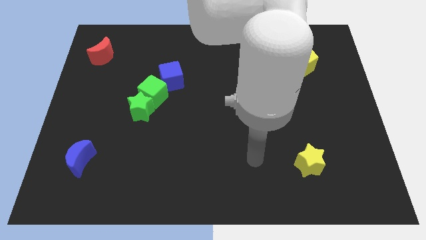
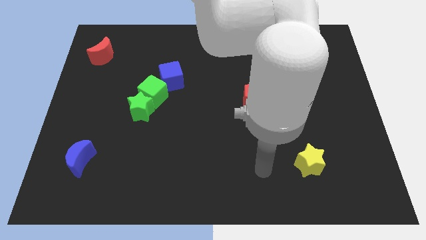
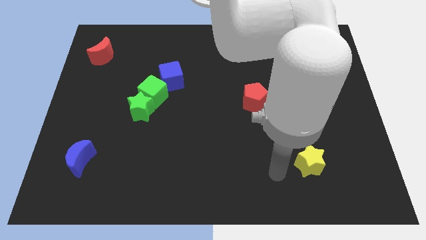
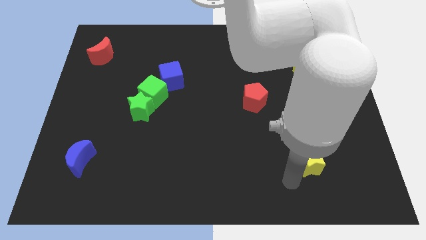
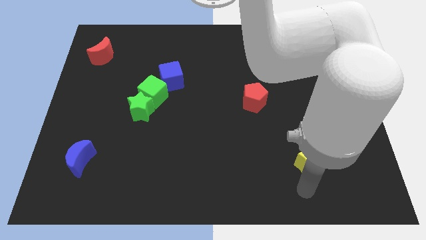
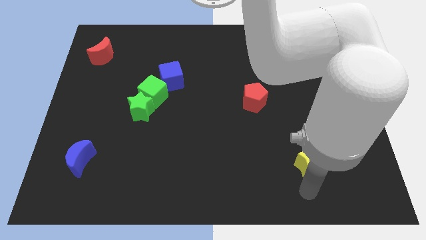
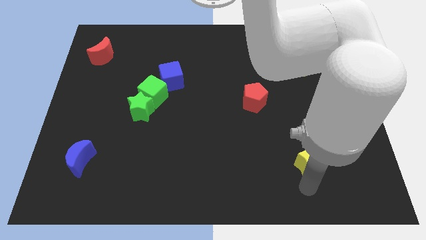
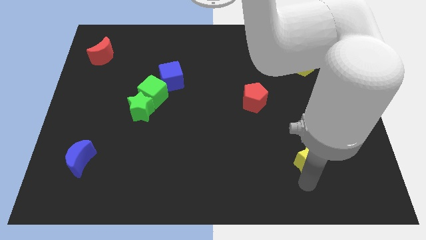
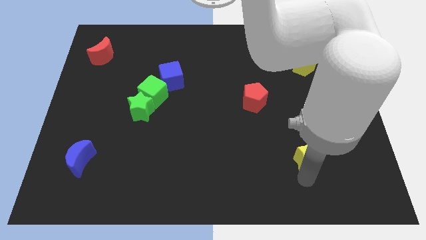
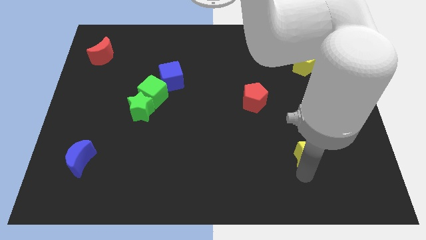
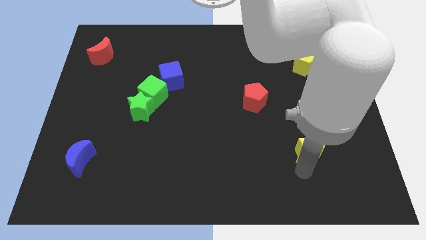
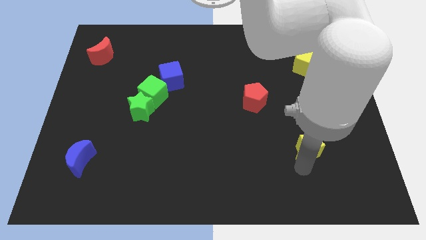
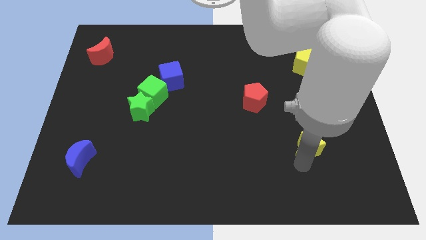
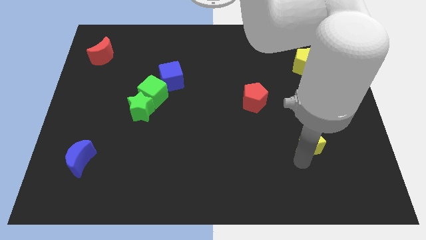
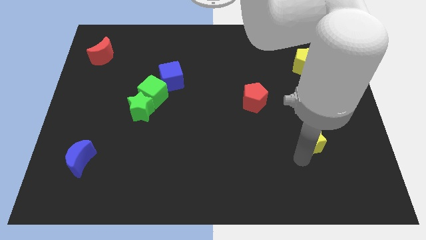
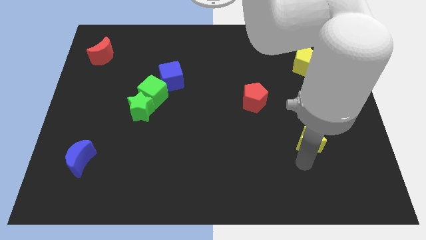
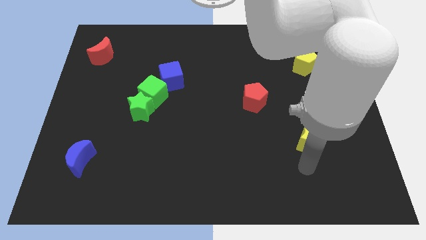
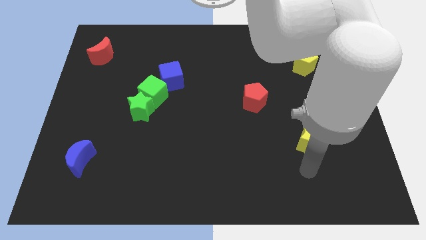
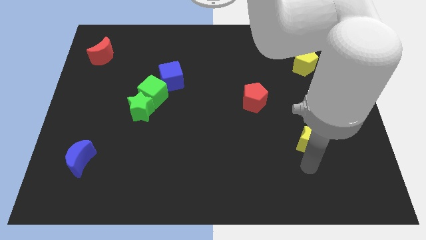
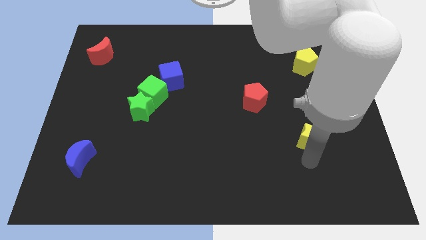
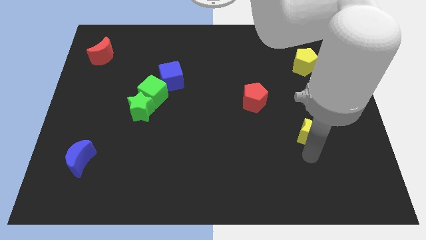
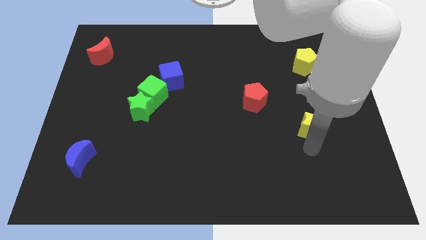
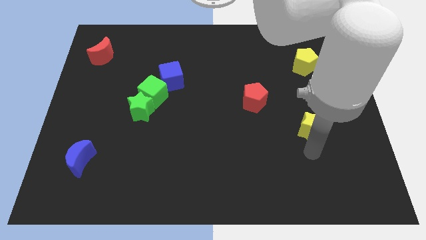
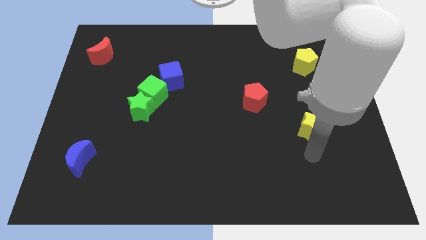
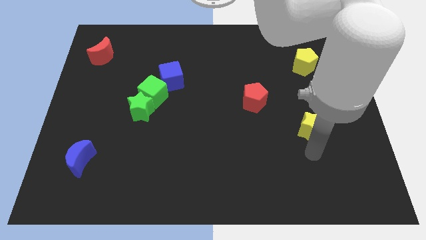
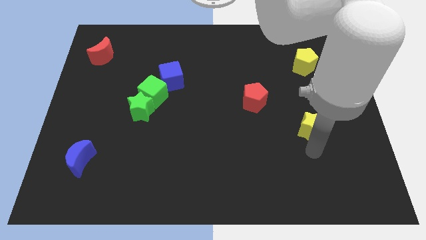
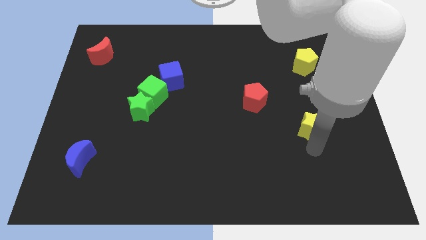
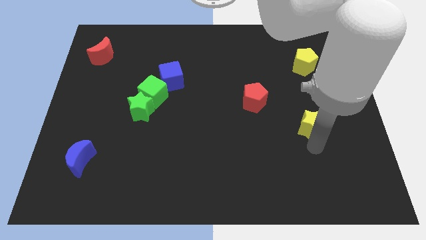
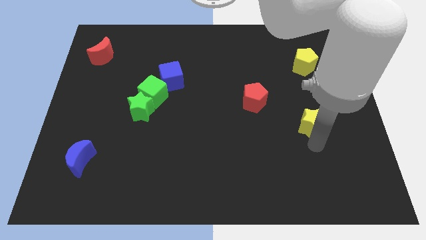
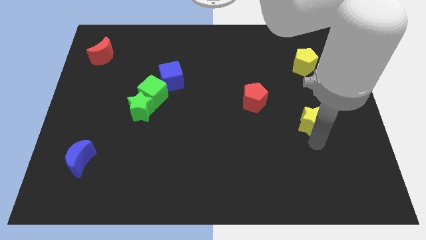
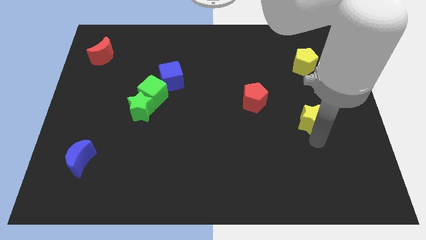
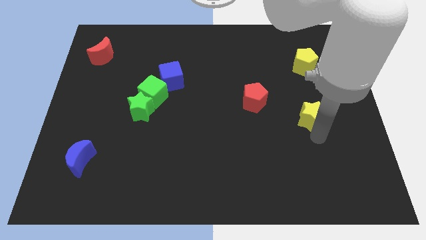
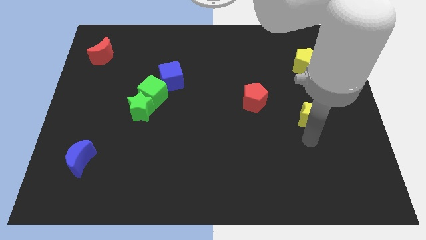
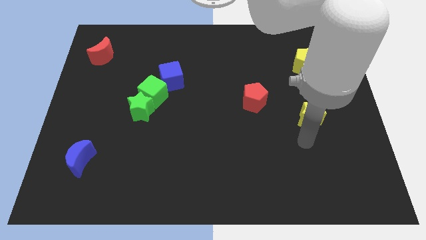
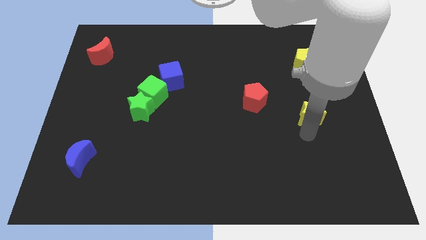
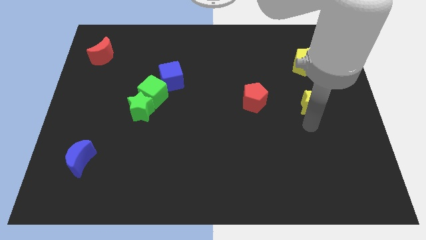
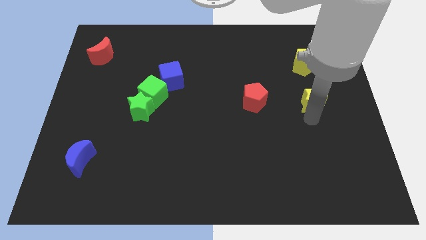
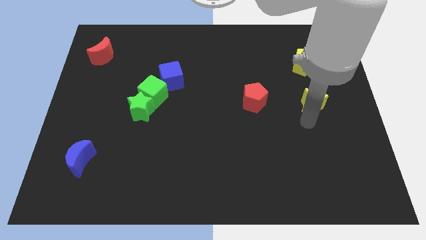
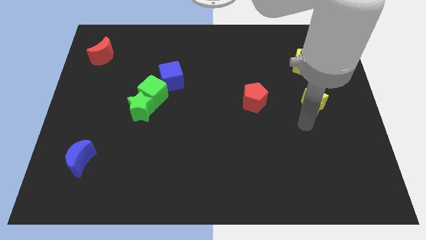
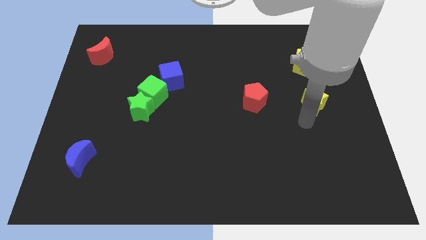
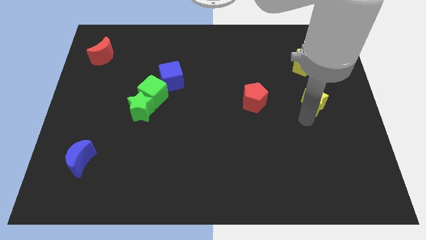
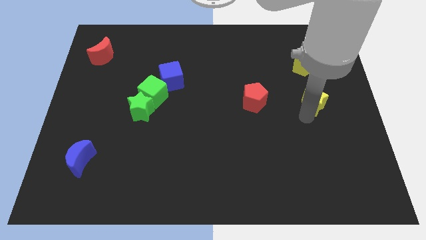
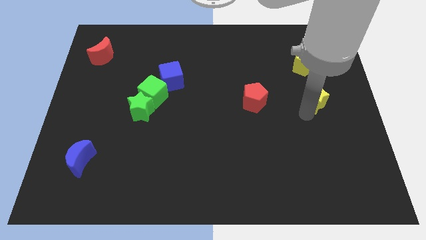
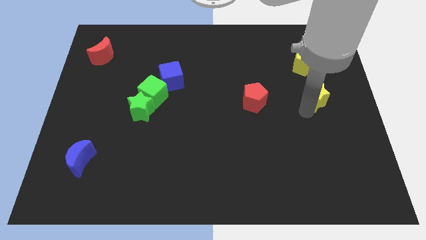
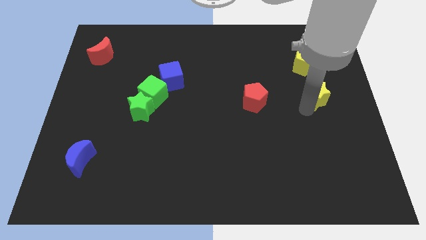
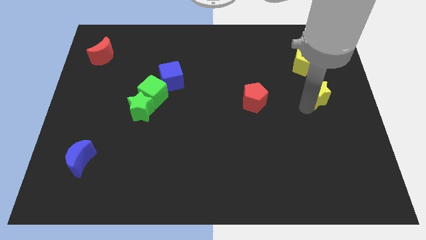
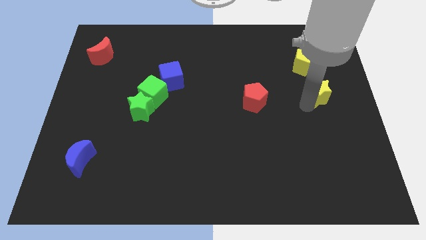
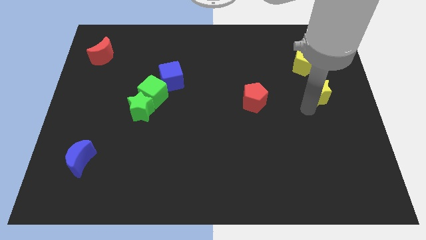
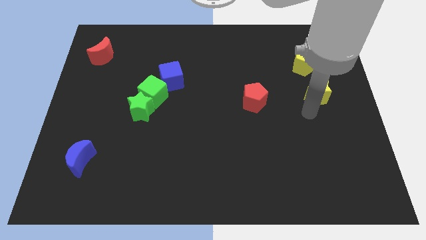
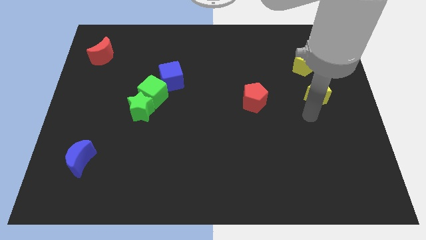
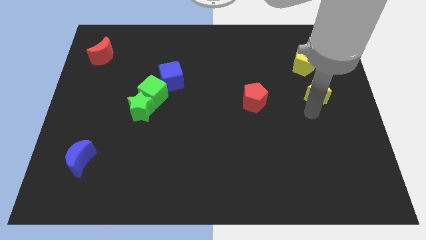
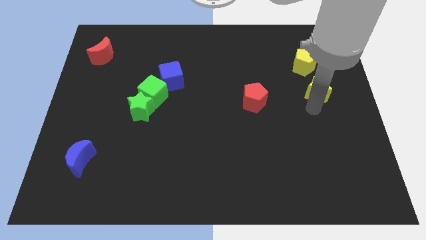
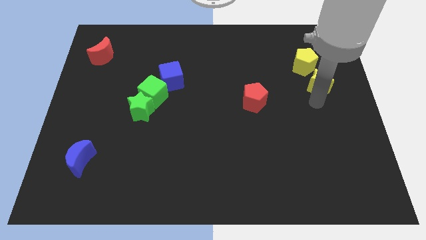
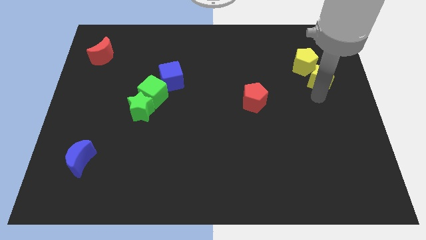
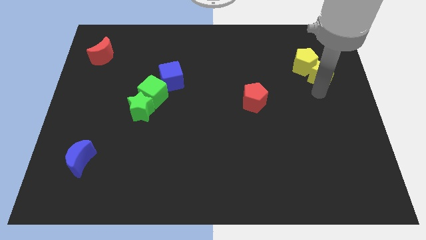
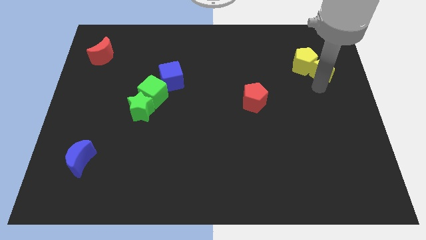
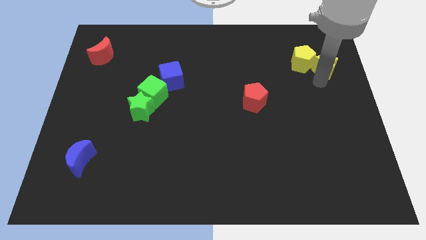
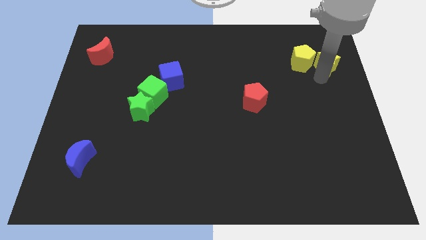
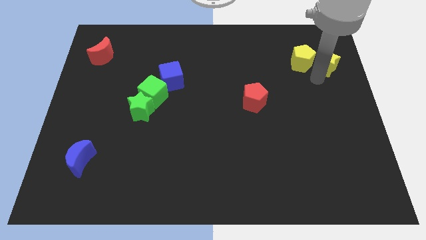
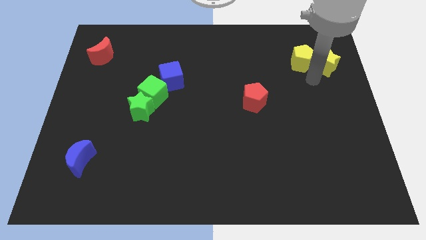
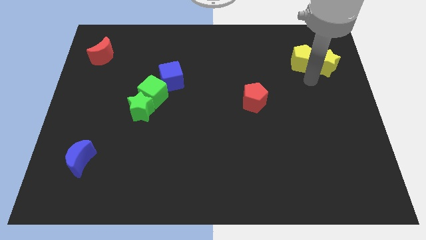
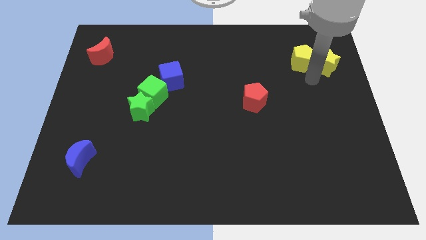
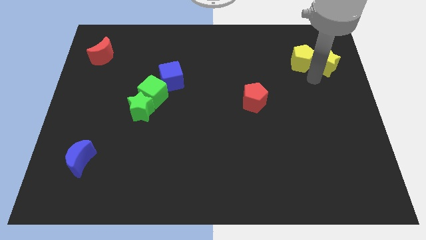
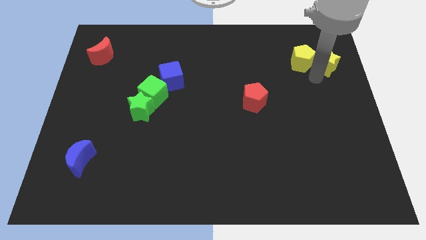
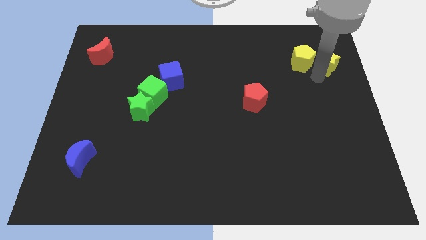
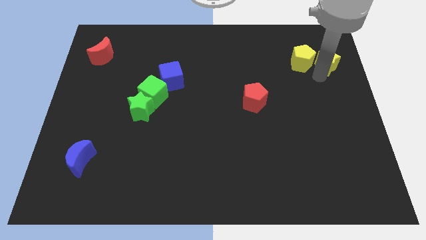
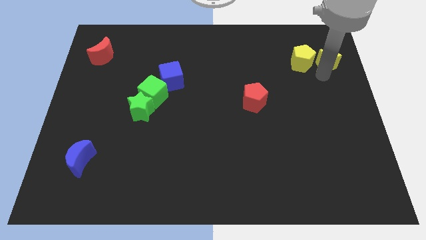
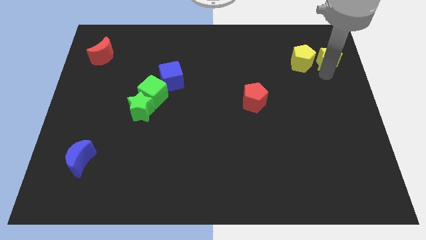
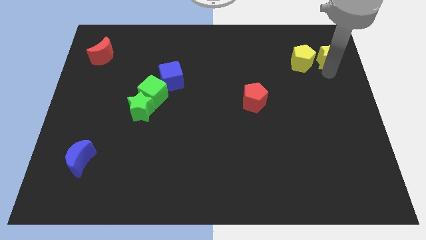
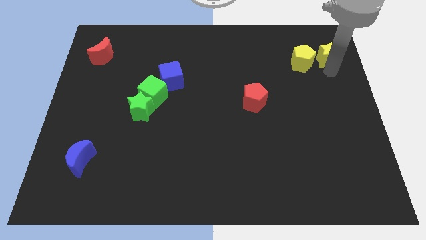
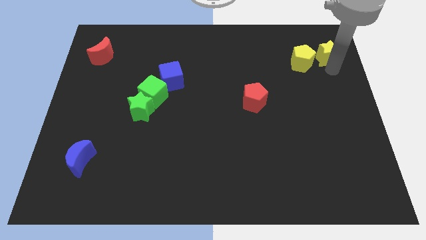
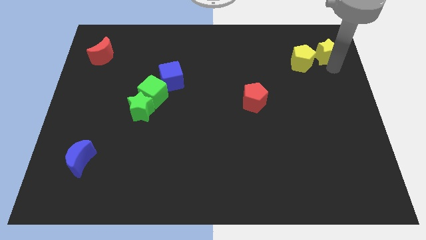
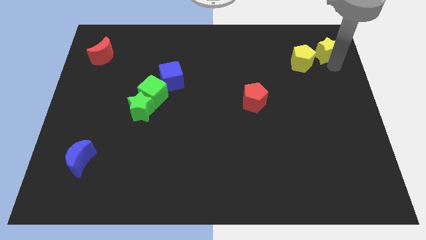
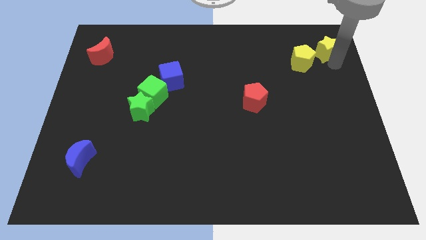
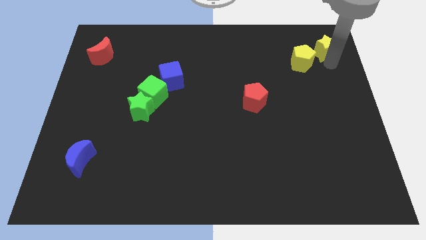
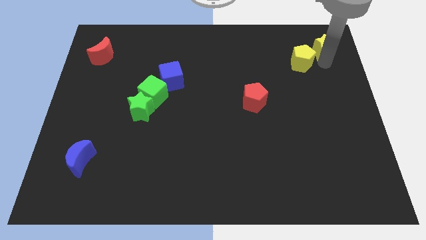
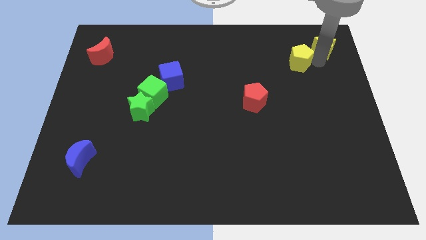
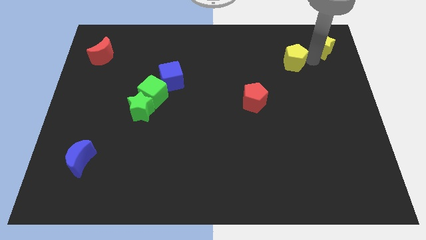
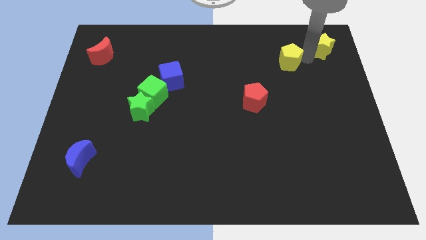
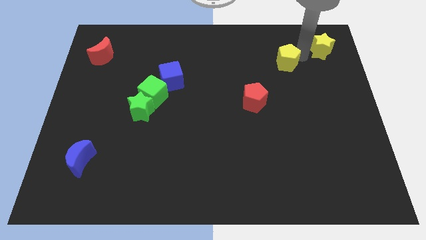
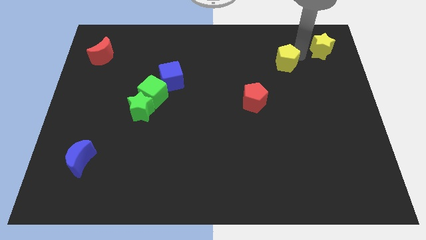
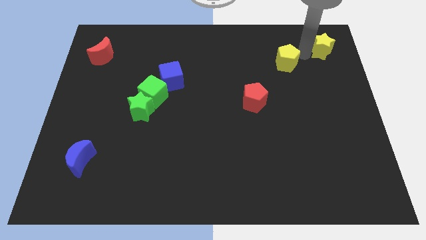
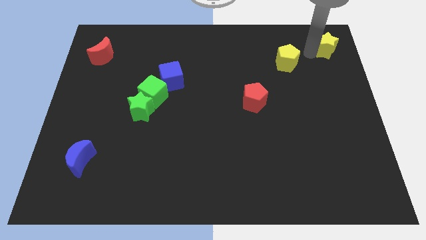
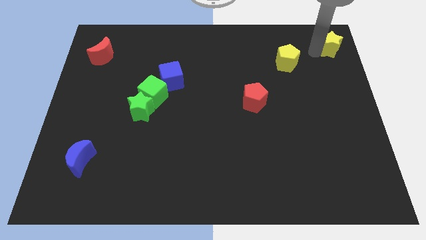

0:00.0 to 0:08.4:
push the yellow star to the upper right corner
